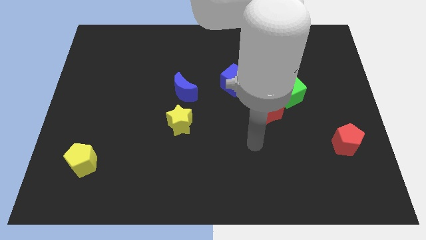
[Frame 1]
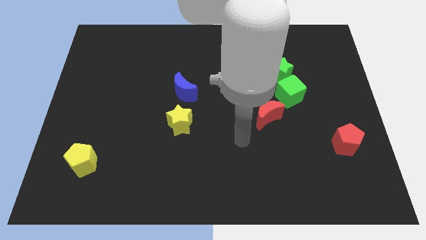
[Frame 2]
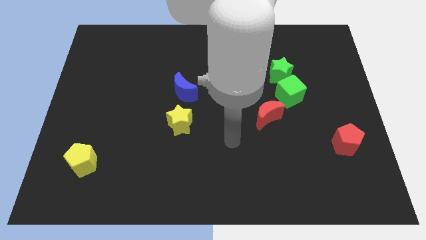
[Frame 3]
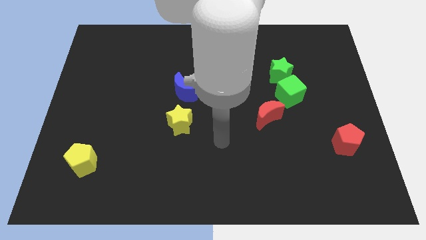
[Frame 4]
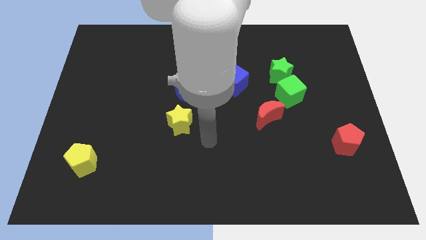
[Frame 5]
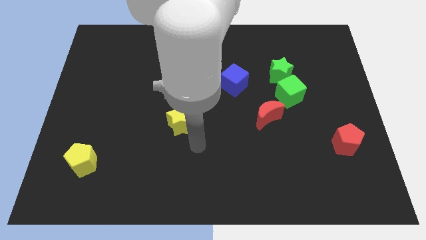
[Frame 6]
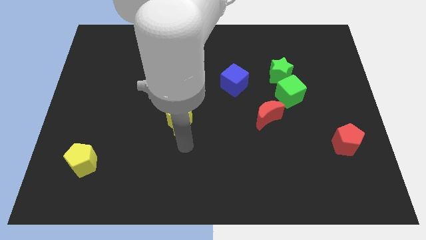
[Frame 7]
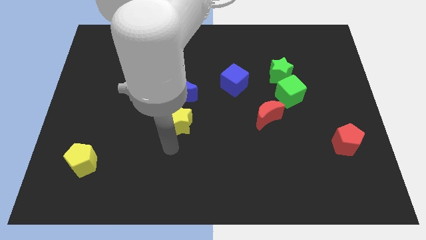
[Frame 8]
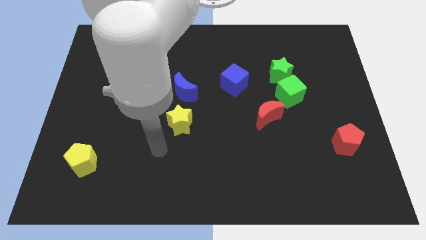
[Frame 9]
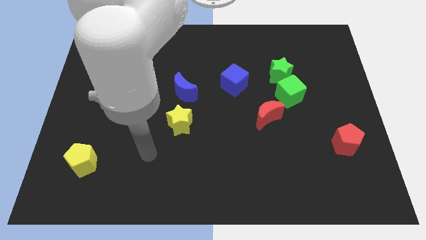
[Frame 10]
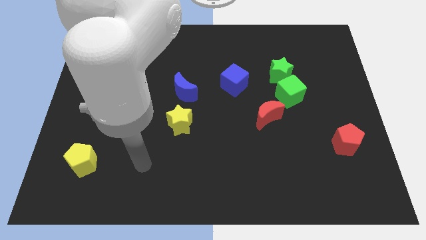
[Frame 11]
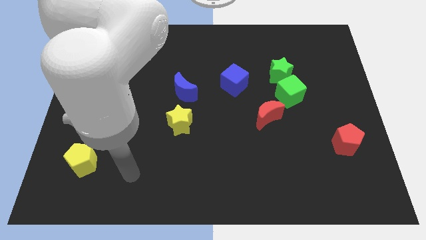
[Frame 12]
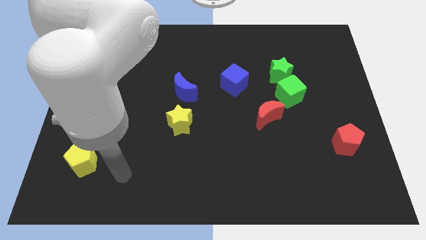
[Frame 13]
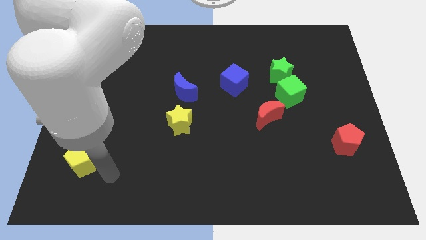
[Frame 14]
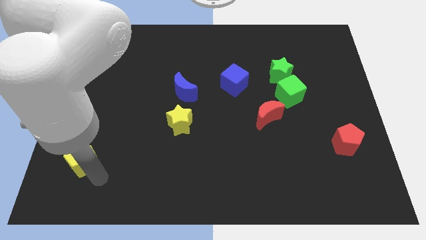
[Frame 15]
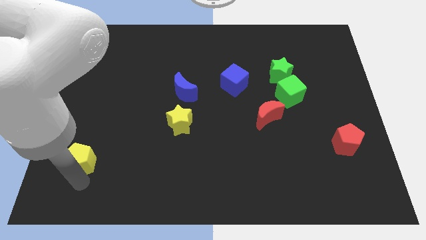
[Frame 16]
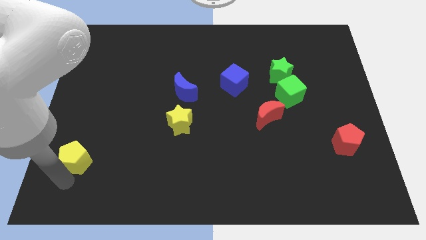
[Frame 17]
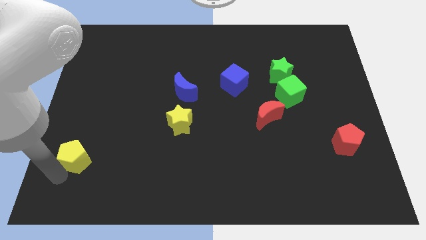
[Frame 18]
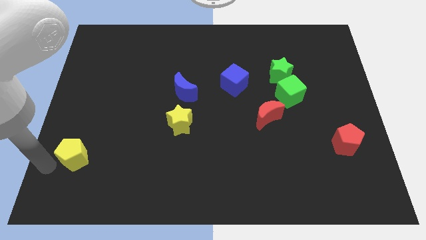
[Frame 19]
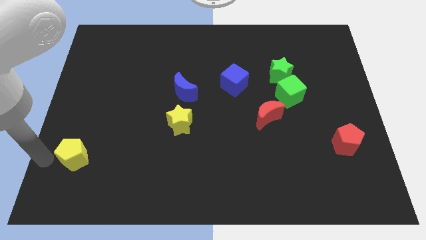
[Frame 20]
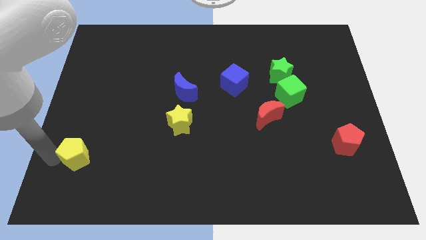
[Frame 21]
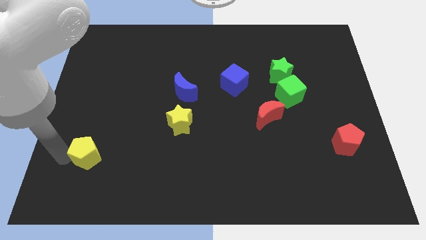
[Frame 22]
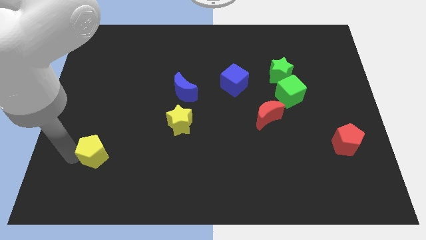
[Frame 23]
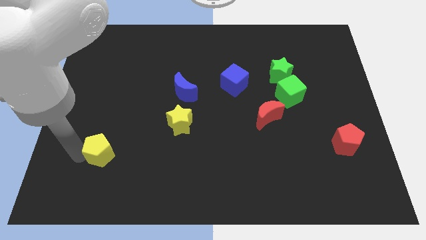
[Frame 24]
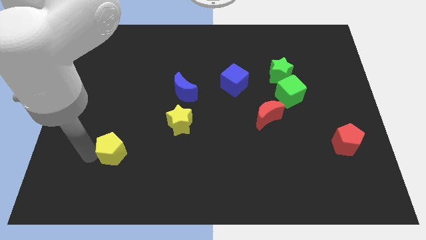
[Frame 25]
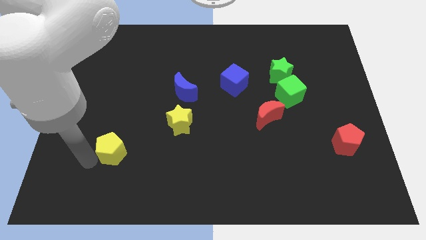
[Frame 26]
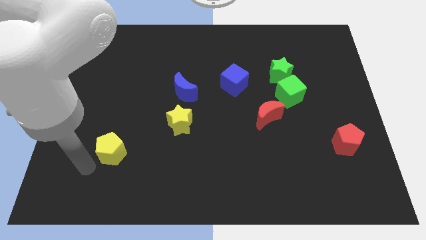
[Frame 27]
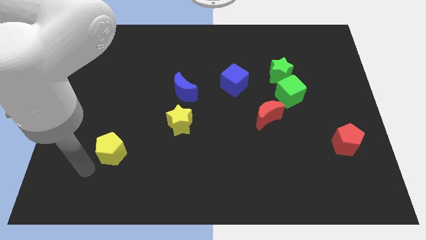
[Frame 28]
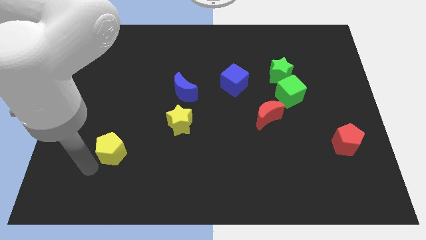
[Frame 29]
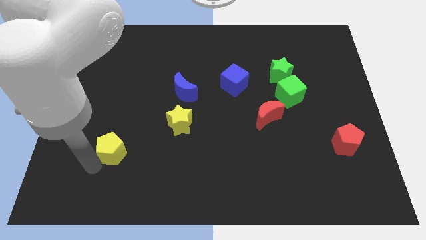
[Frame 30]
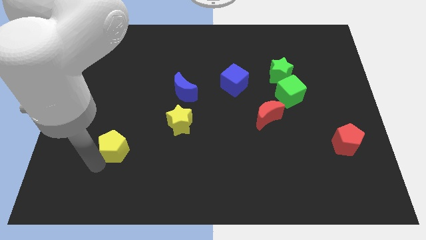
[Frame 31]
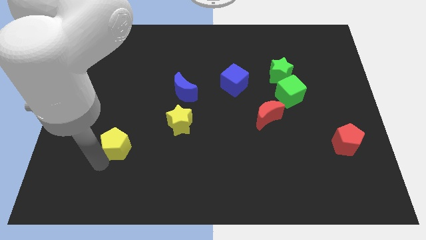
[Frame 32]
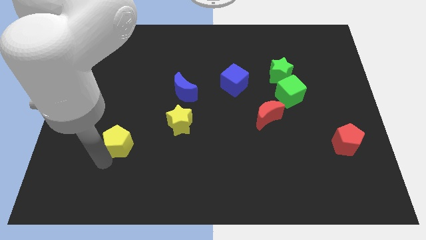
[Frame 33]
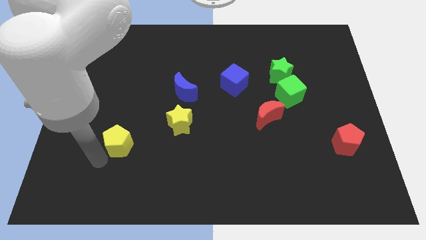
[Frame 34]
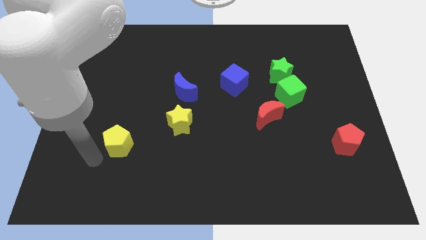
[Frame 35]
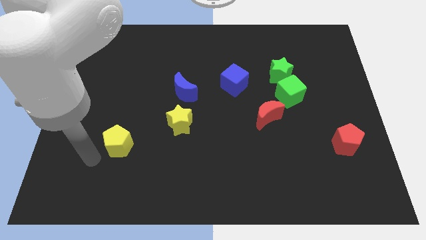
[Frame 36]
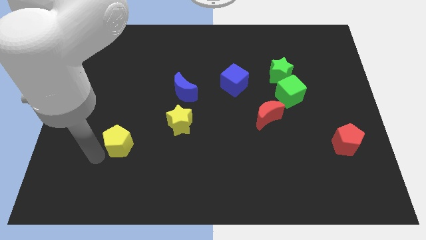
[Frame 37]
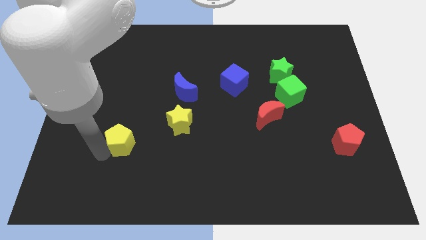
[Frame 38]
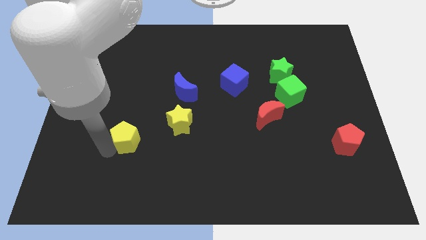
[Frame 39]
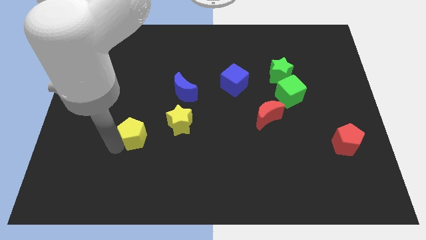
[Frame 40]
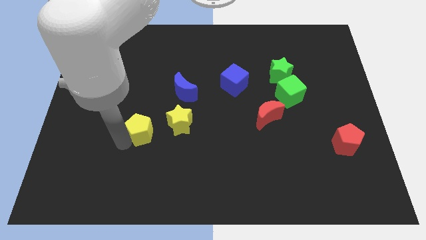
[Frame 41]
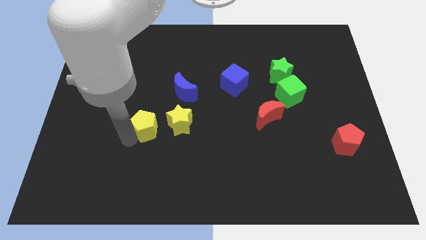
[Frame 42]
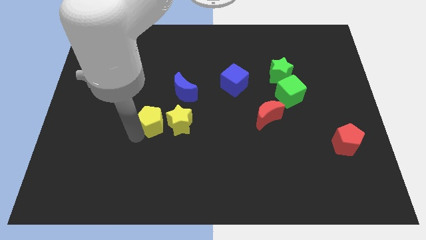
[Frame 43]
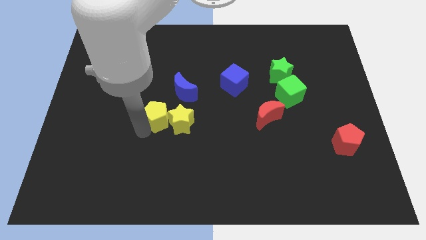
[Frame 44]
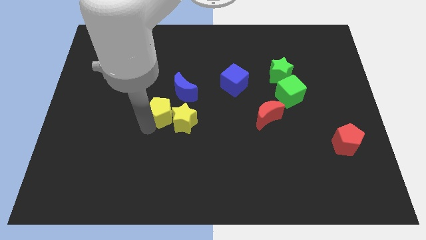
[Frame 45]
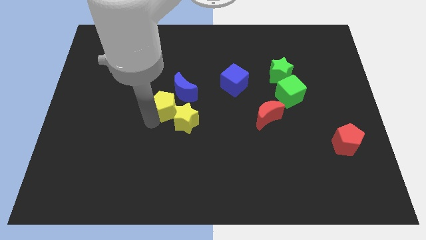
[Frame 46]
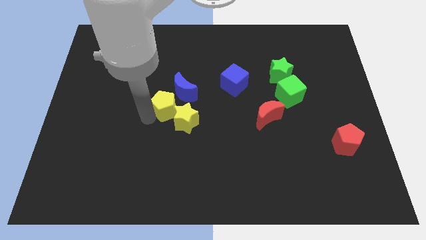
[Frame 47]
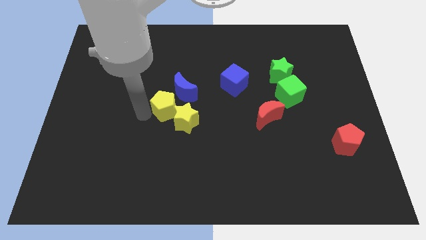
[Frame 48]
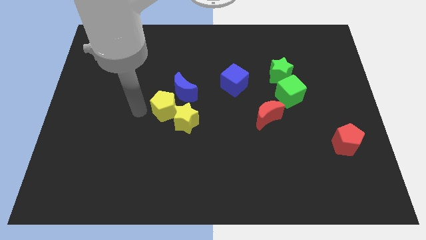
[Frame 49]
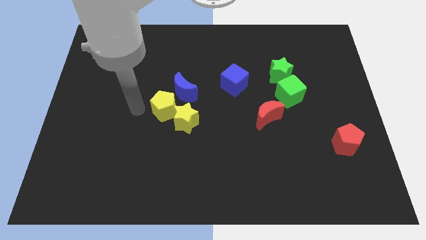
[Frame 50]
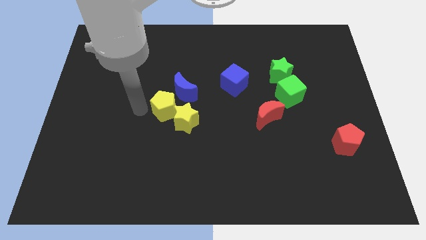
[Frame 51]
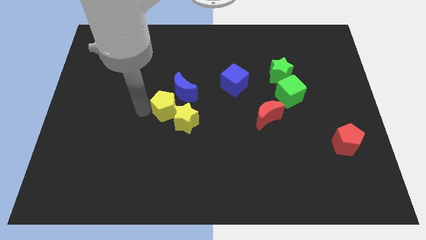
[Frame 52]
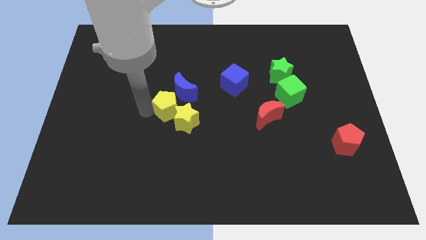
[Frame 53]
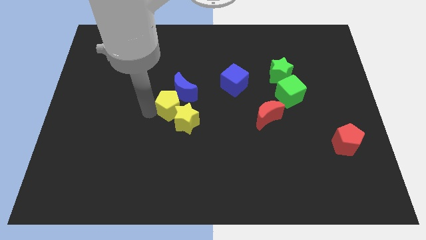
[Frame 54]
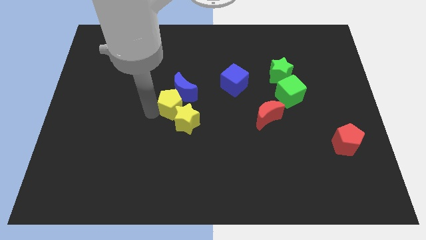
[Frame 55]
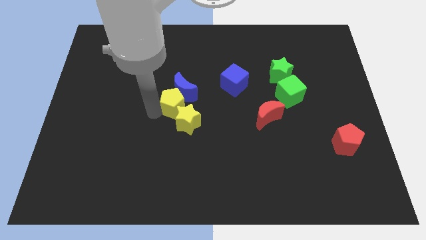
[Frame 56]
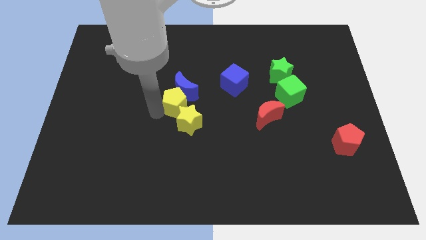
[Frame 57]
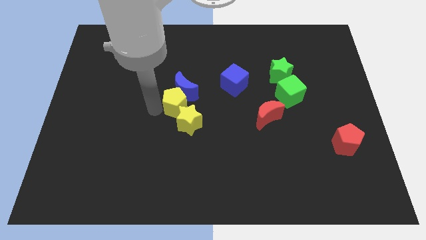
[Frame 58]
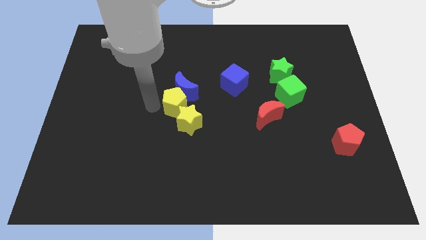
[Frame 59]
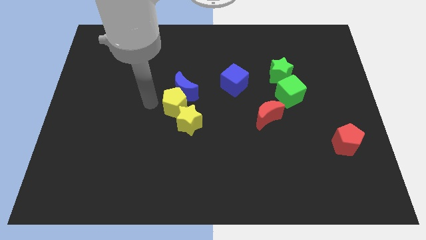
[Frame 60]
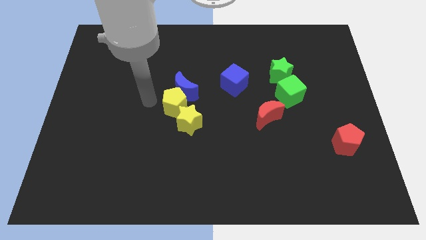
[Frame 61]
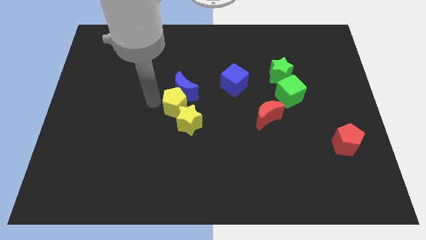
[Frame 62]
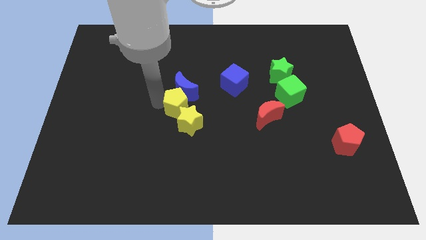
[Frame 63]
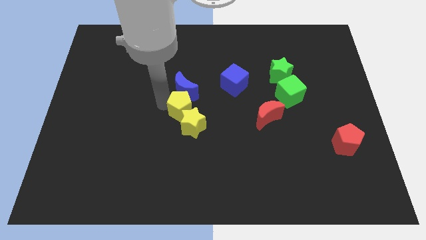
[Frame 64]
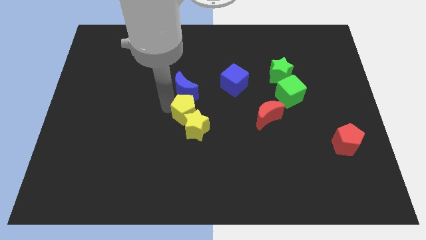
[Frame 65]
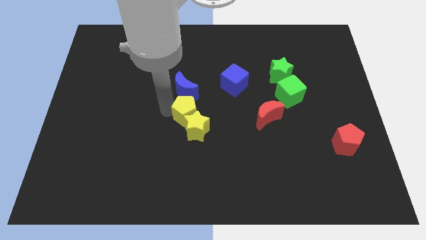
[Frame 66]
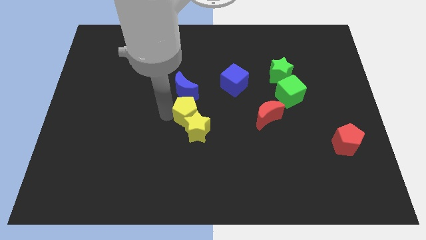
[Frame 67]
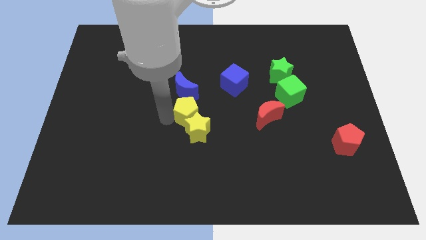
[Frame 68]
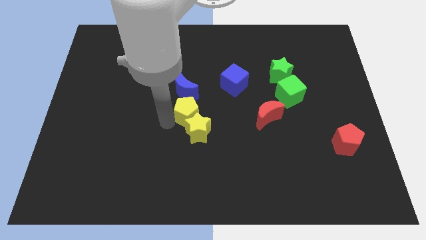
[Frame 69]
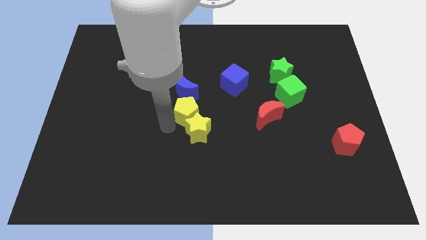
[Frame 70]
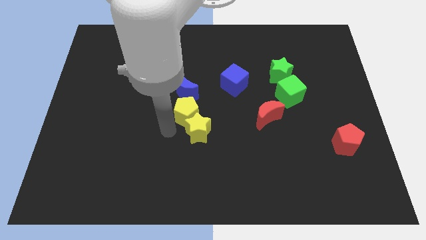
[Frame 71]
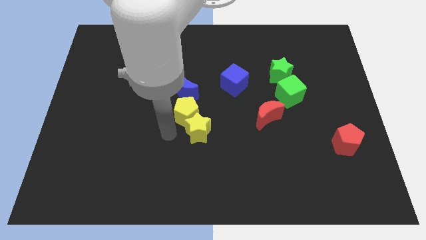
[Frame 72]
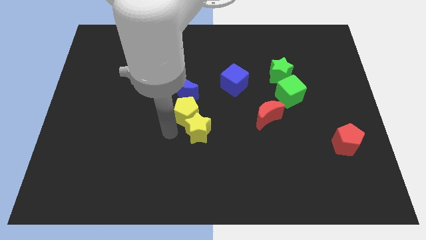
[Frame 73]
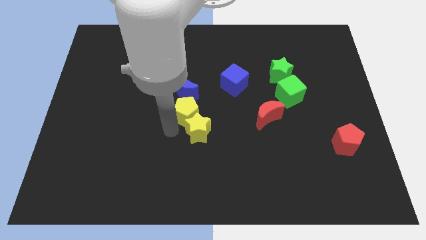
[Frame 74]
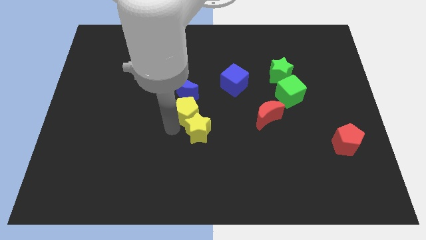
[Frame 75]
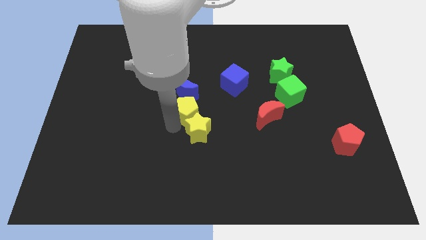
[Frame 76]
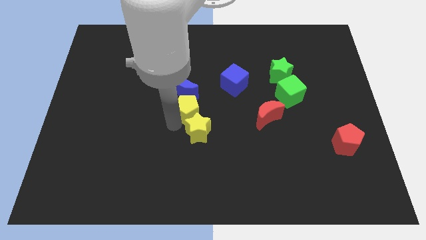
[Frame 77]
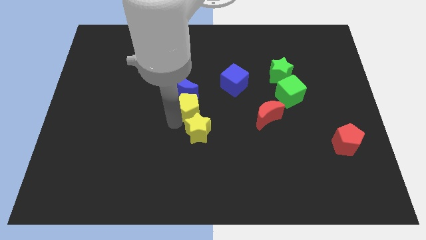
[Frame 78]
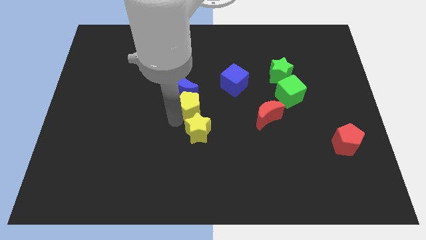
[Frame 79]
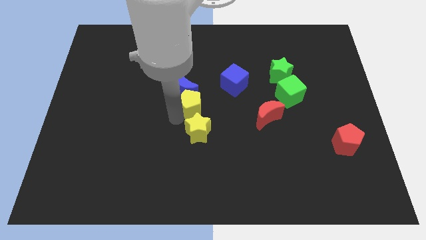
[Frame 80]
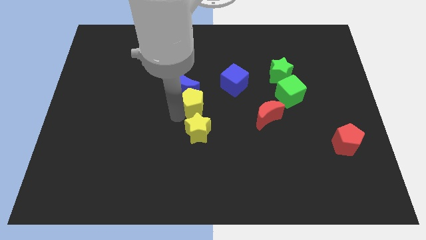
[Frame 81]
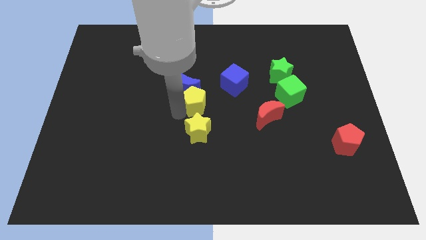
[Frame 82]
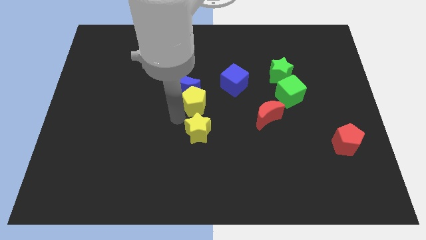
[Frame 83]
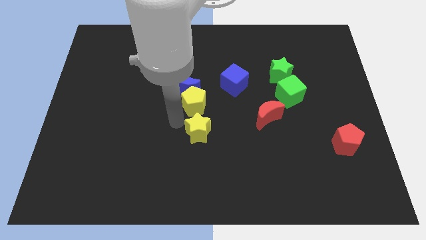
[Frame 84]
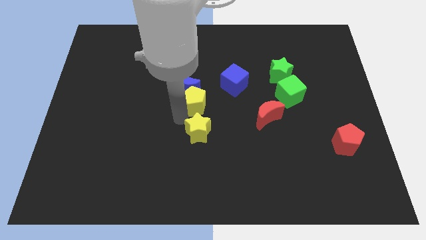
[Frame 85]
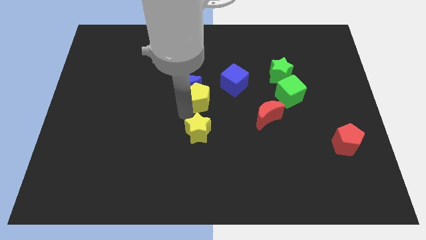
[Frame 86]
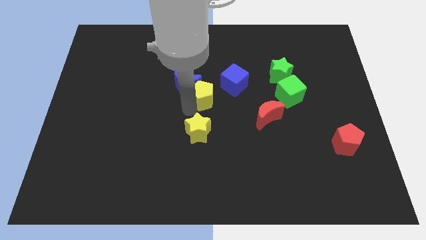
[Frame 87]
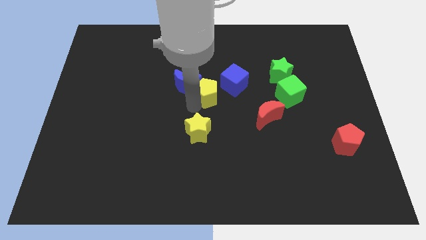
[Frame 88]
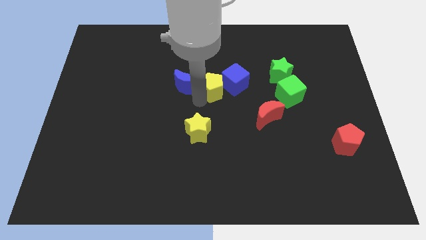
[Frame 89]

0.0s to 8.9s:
slide the yellow pentagon to the blue cube
